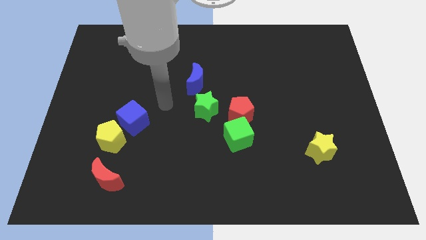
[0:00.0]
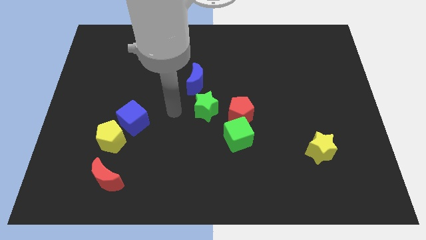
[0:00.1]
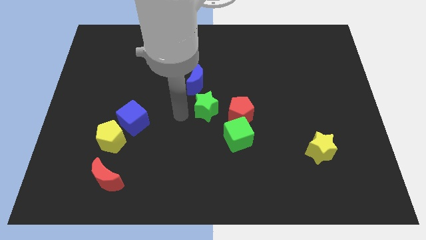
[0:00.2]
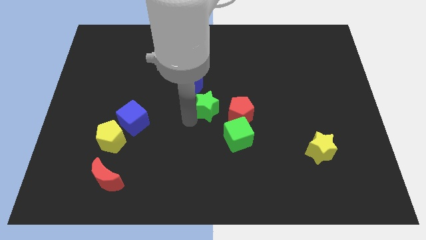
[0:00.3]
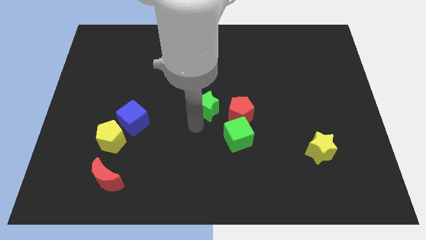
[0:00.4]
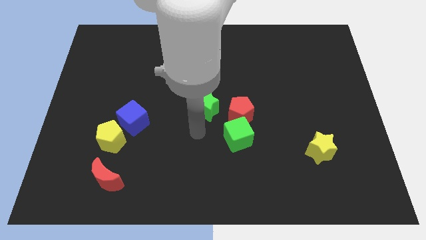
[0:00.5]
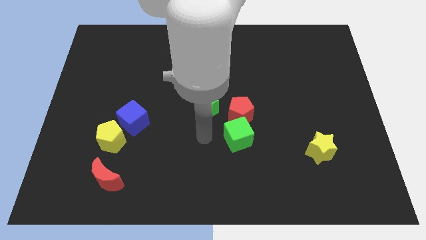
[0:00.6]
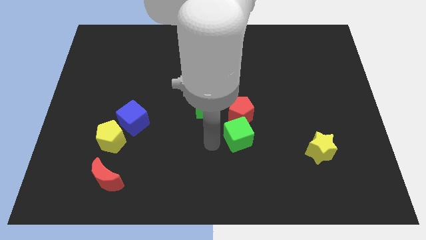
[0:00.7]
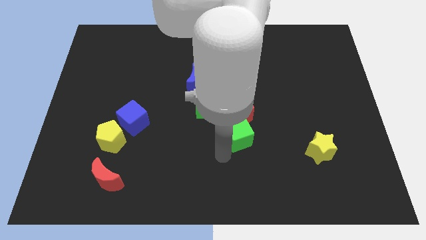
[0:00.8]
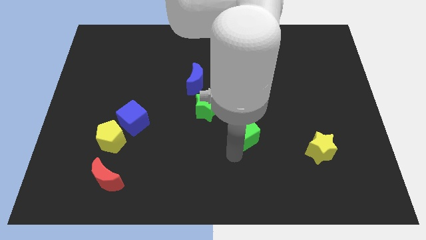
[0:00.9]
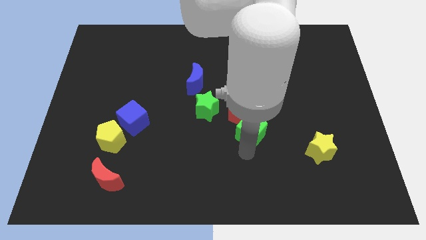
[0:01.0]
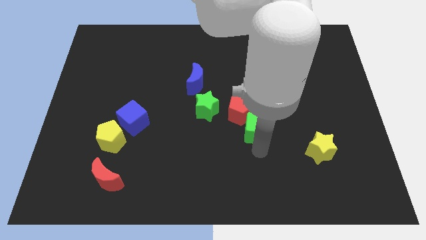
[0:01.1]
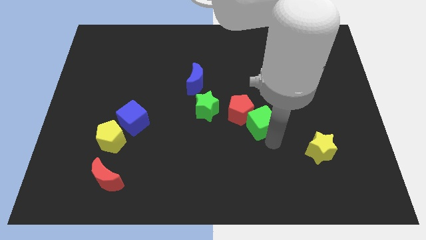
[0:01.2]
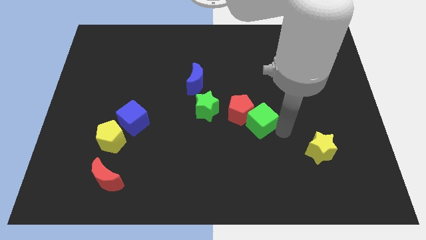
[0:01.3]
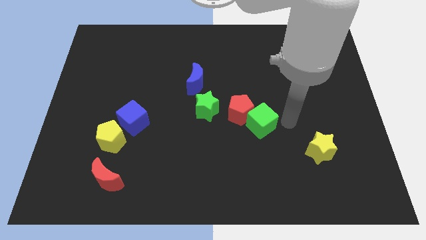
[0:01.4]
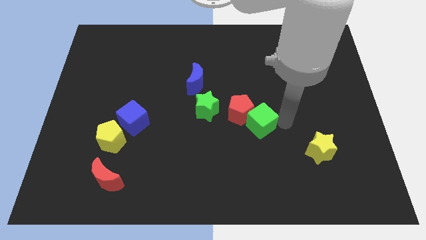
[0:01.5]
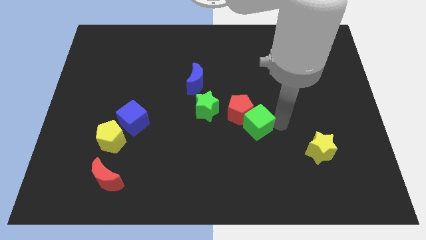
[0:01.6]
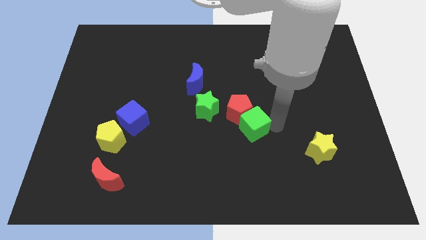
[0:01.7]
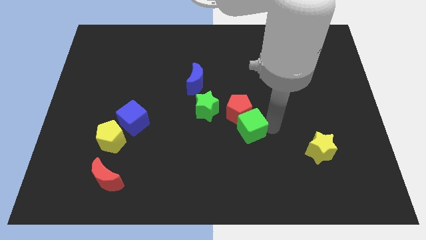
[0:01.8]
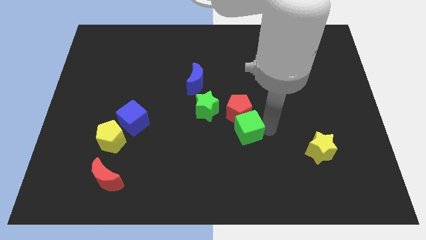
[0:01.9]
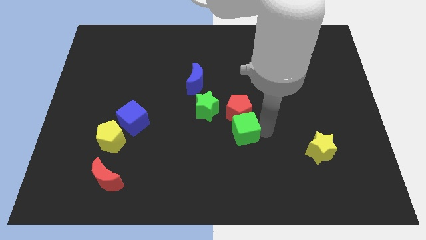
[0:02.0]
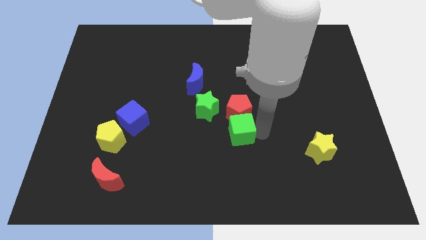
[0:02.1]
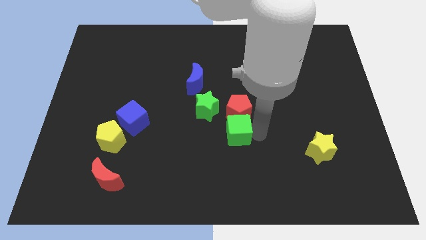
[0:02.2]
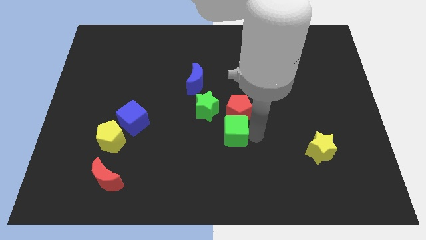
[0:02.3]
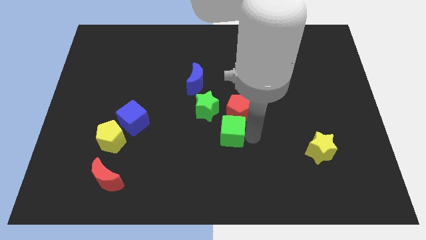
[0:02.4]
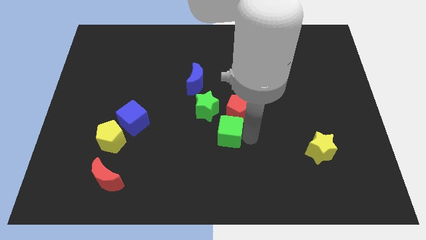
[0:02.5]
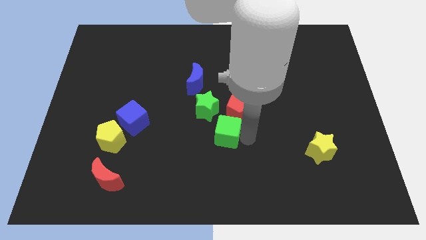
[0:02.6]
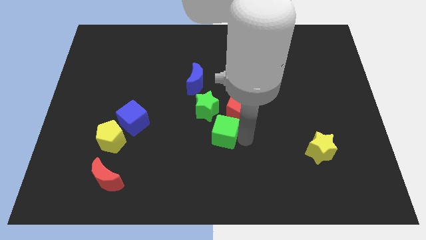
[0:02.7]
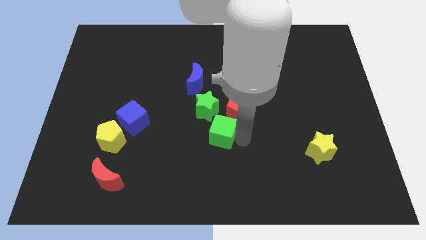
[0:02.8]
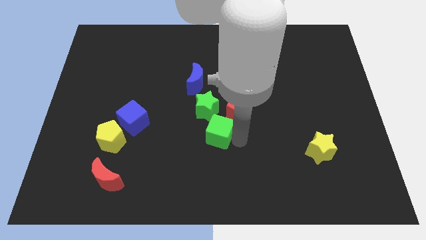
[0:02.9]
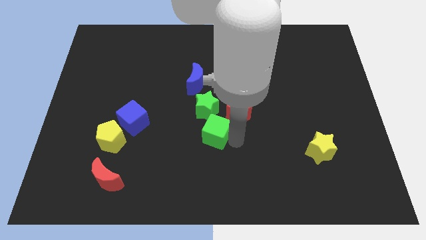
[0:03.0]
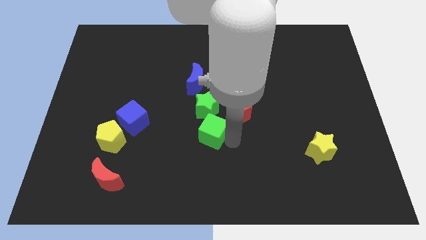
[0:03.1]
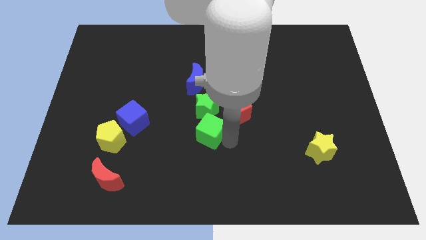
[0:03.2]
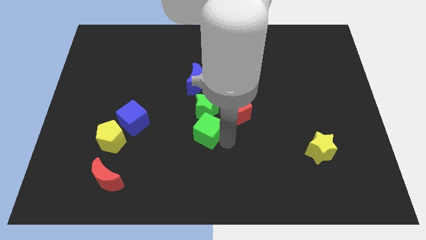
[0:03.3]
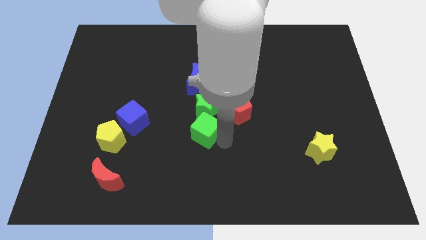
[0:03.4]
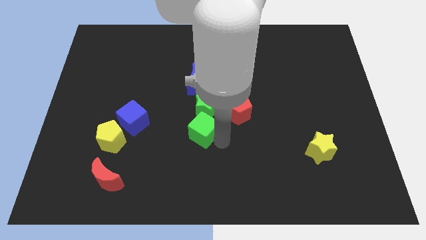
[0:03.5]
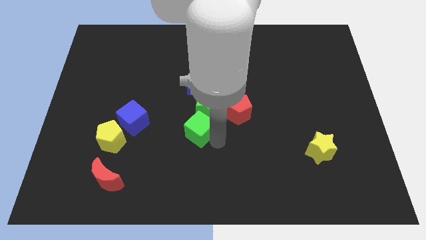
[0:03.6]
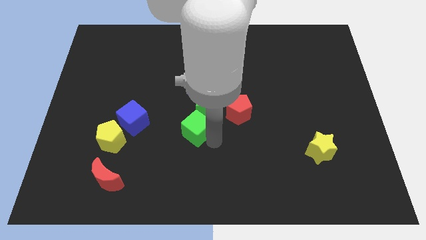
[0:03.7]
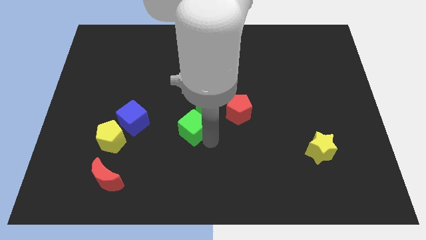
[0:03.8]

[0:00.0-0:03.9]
move the green cube a bit upwards and to the left diagonally

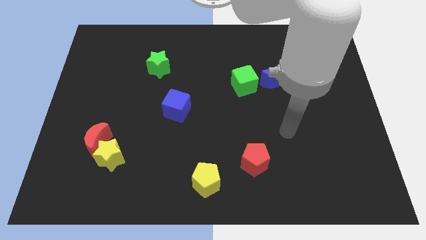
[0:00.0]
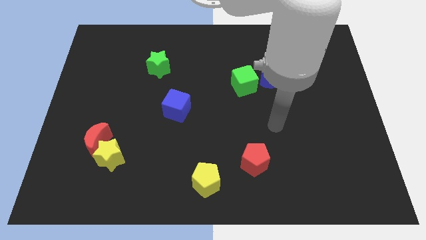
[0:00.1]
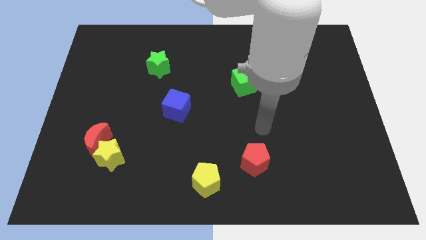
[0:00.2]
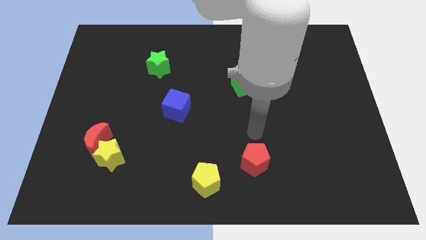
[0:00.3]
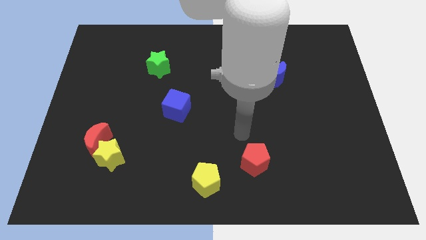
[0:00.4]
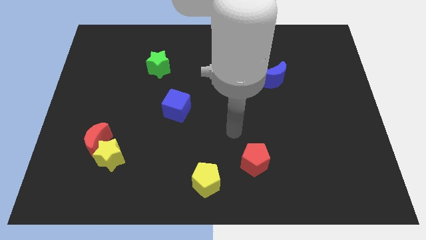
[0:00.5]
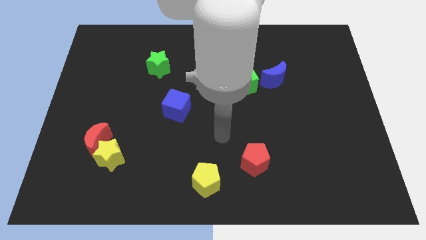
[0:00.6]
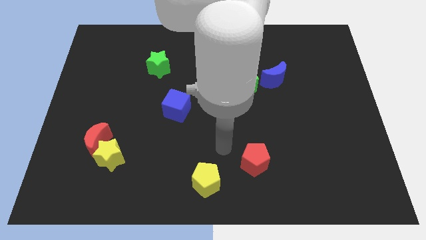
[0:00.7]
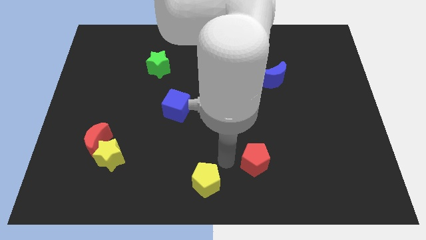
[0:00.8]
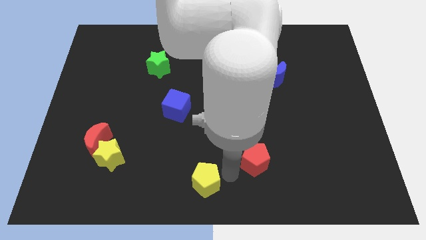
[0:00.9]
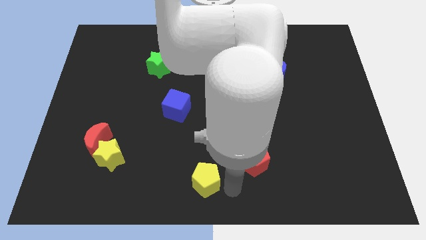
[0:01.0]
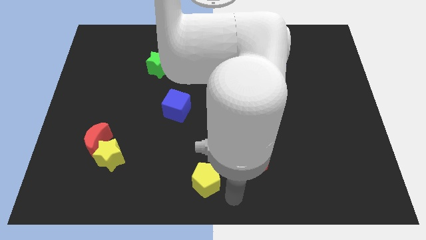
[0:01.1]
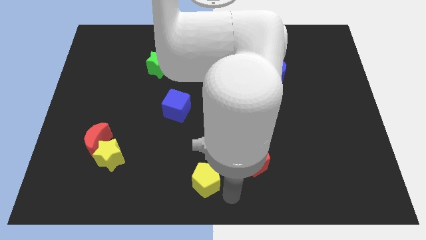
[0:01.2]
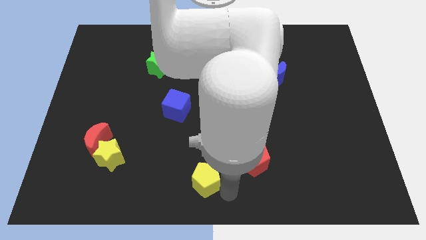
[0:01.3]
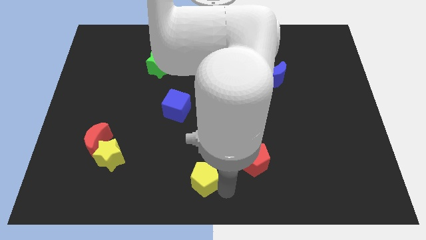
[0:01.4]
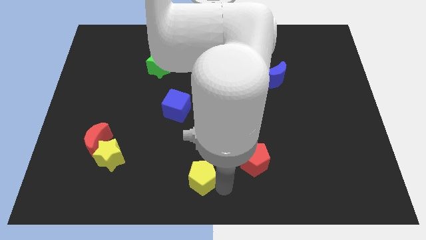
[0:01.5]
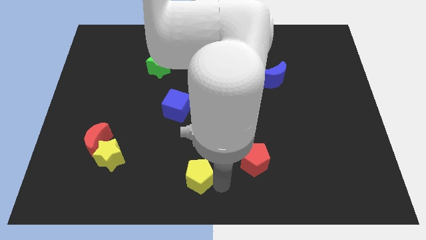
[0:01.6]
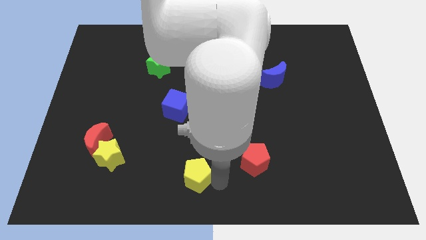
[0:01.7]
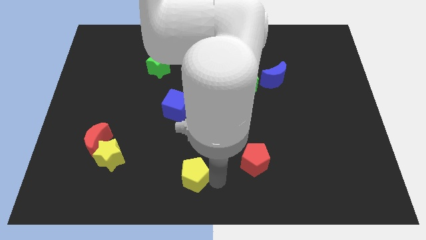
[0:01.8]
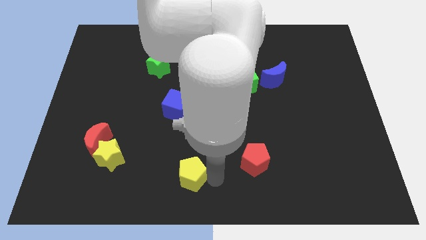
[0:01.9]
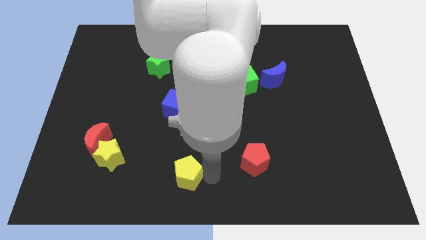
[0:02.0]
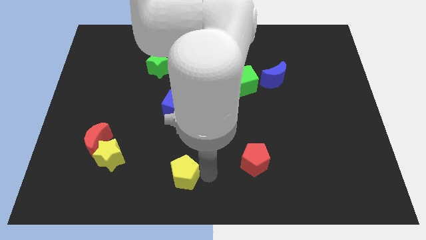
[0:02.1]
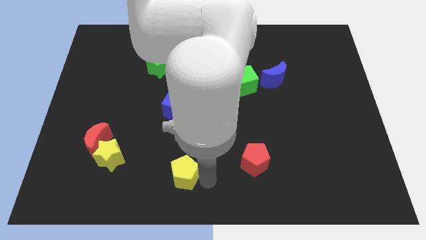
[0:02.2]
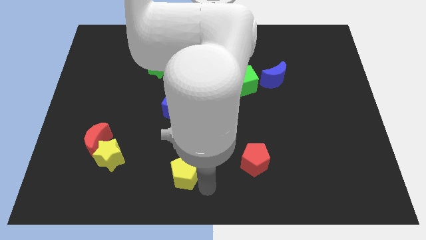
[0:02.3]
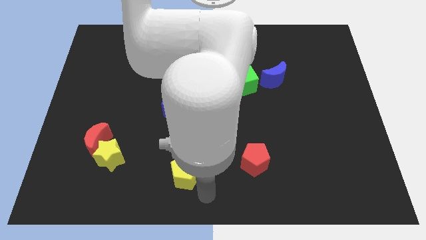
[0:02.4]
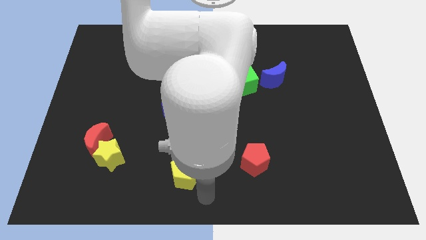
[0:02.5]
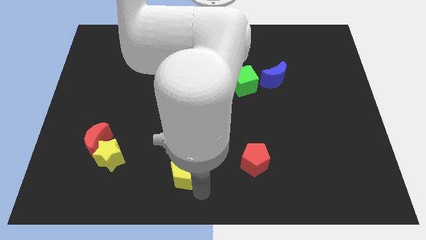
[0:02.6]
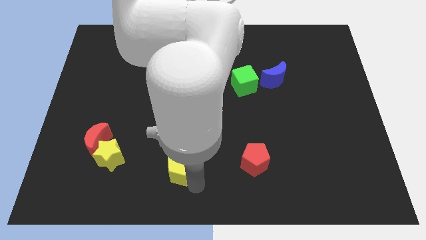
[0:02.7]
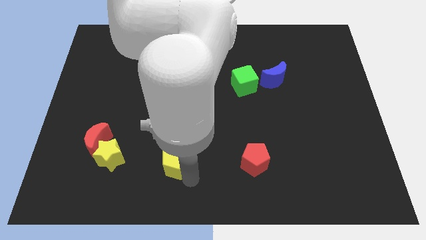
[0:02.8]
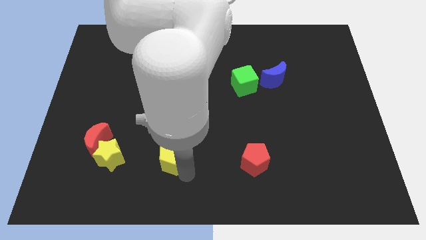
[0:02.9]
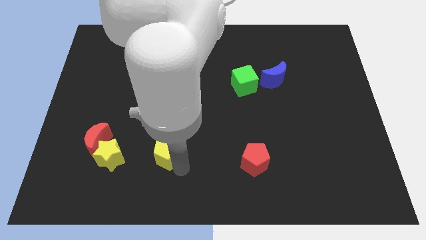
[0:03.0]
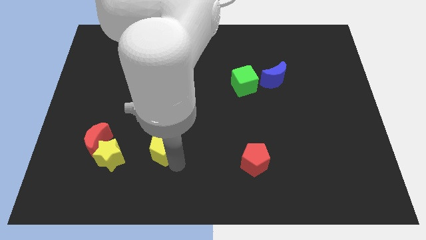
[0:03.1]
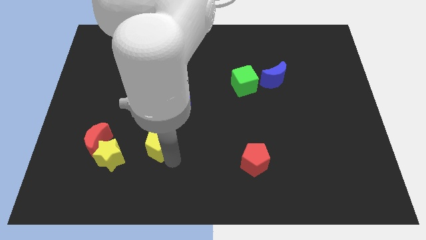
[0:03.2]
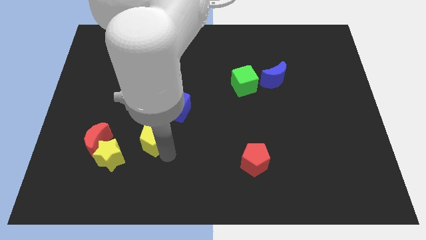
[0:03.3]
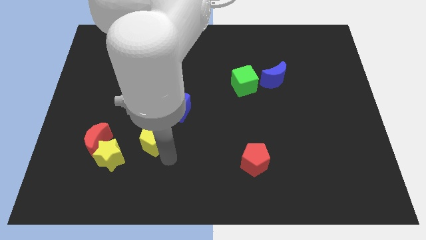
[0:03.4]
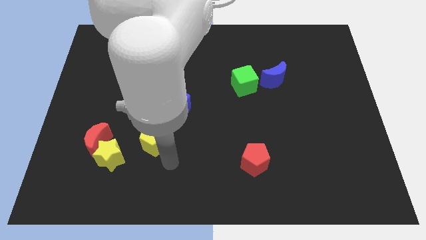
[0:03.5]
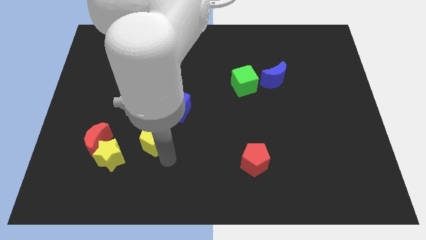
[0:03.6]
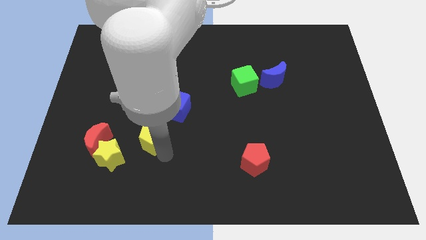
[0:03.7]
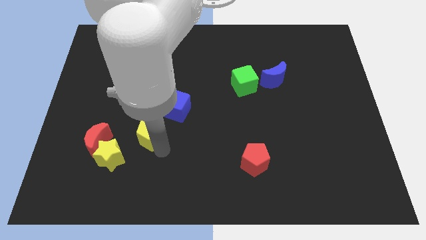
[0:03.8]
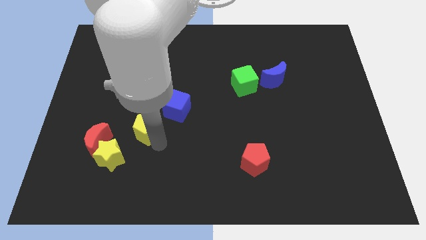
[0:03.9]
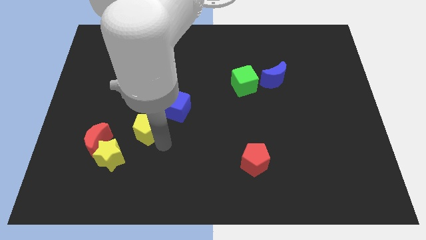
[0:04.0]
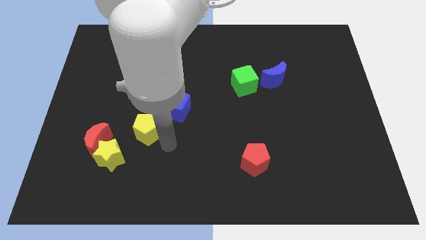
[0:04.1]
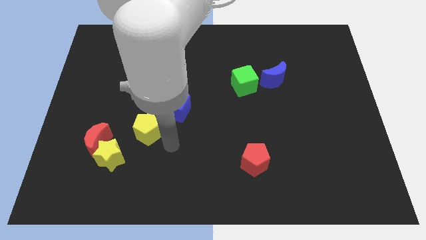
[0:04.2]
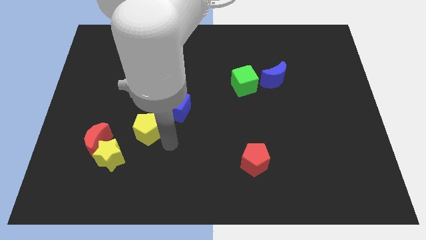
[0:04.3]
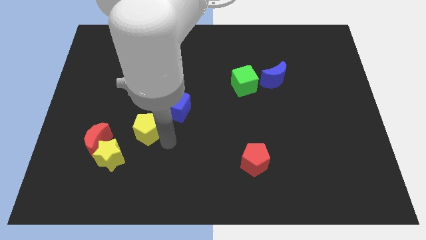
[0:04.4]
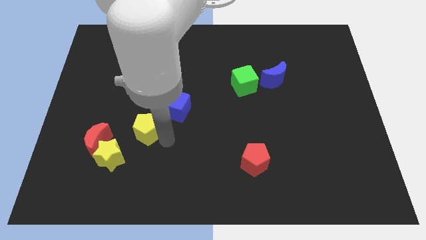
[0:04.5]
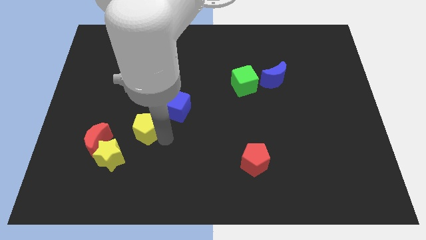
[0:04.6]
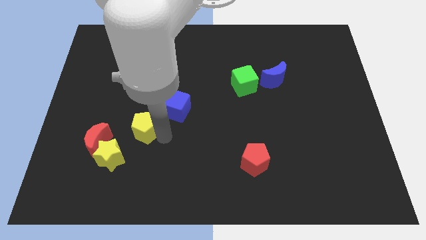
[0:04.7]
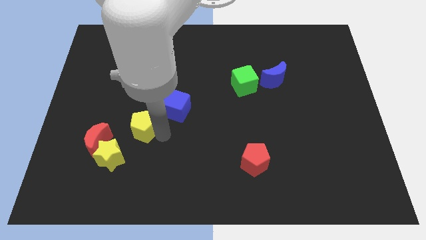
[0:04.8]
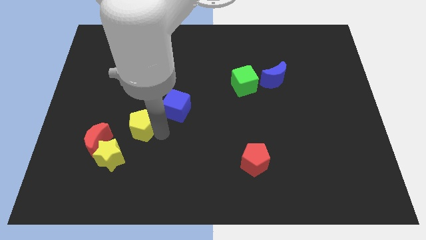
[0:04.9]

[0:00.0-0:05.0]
slide the yellow pentagon up and left
